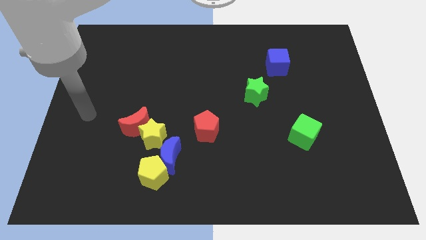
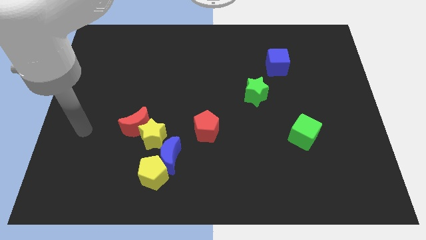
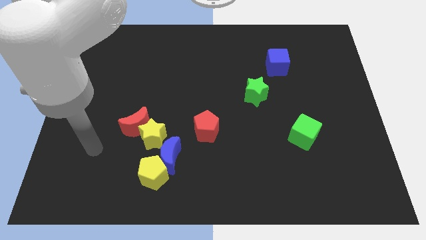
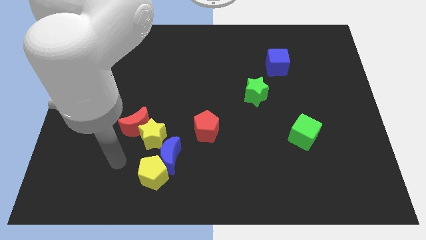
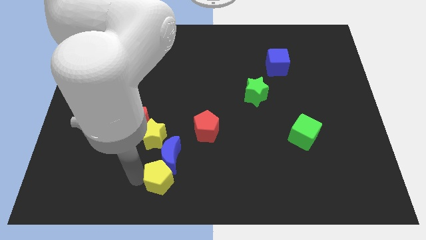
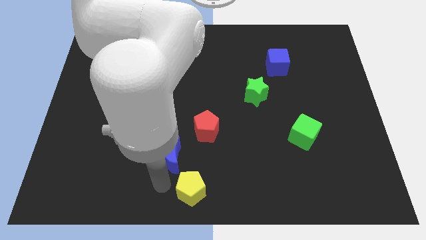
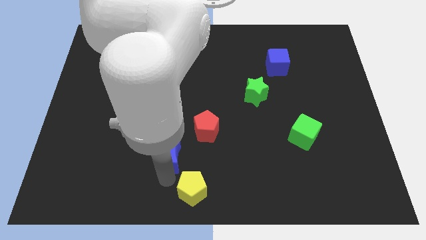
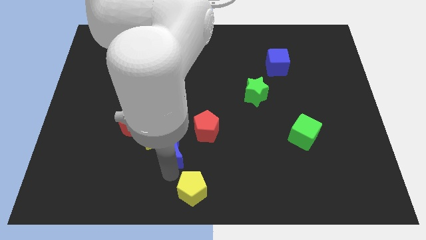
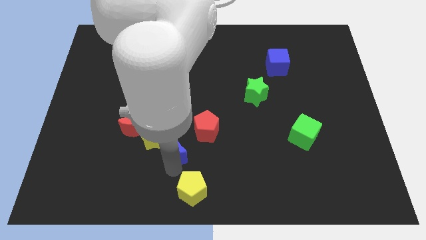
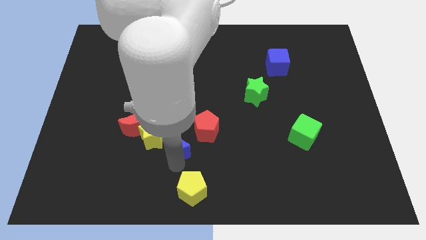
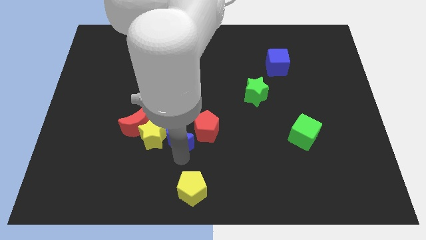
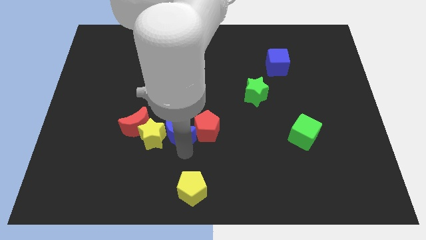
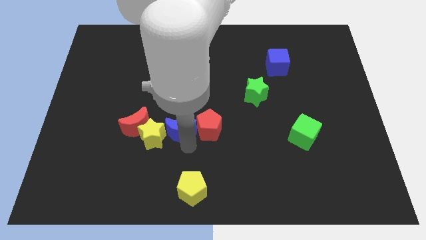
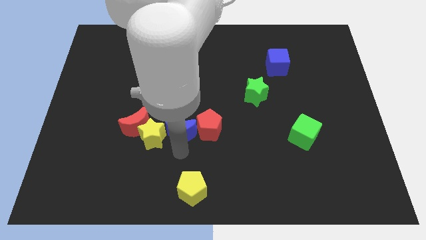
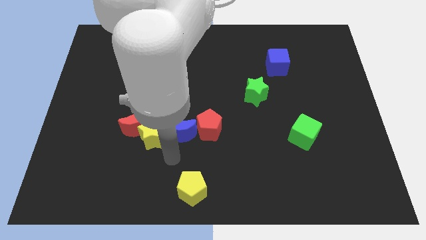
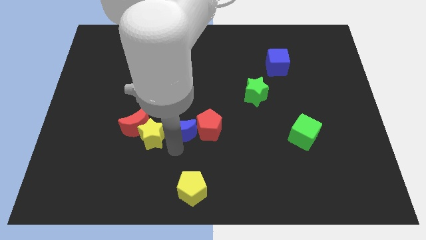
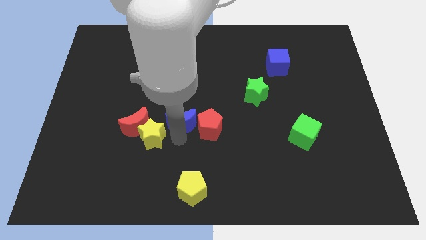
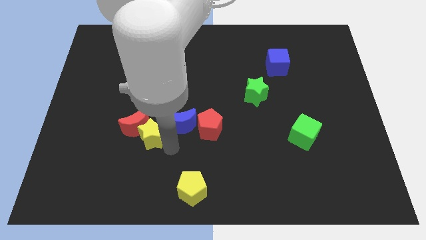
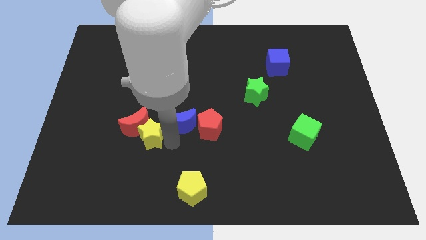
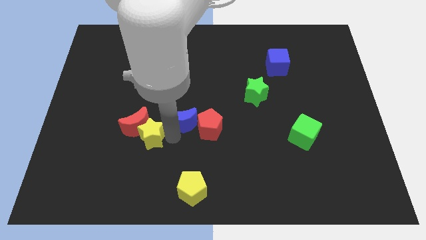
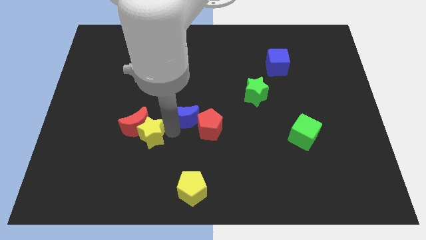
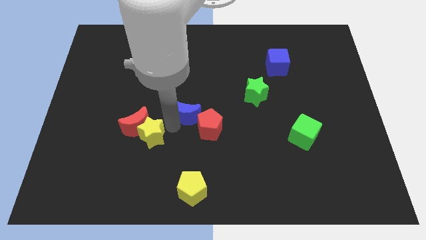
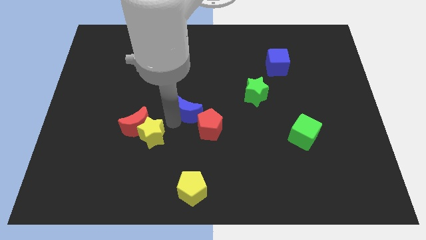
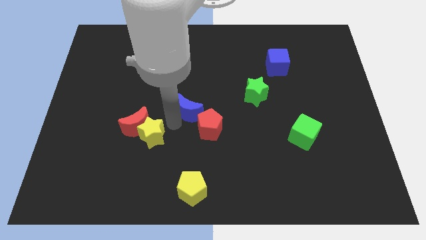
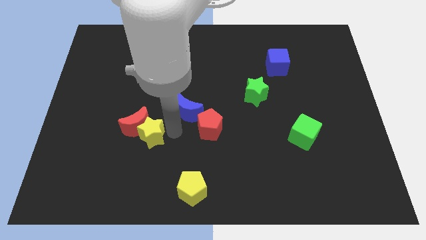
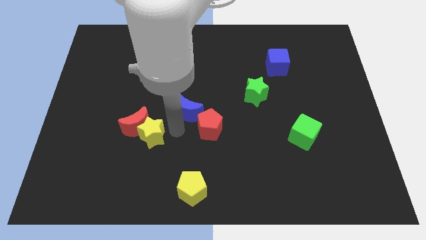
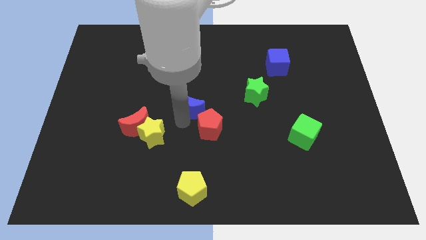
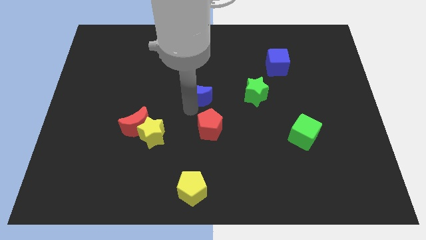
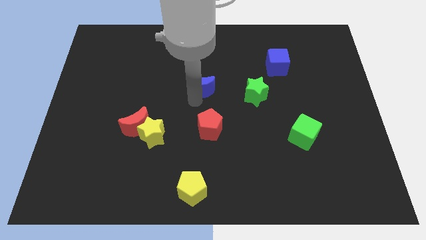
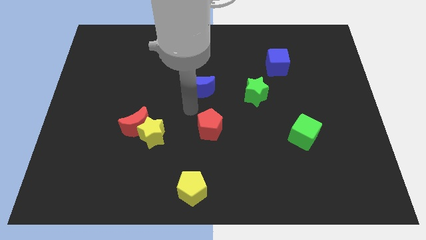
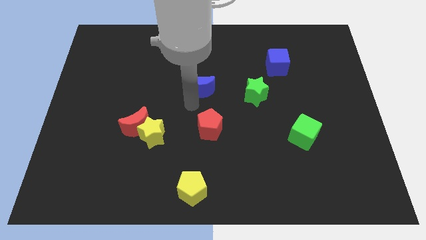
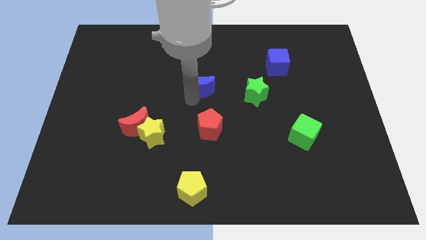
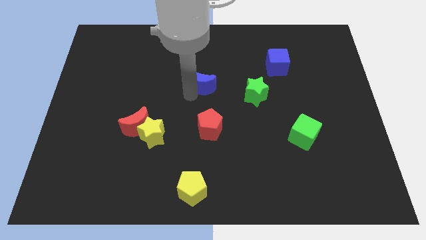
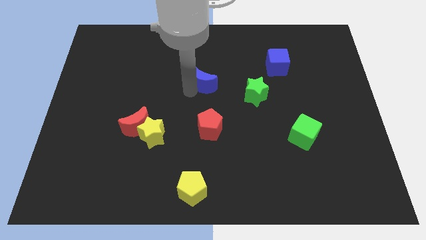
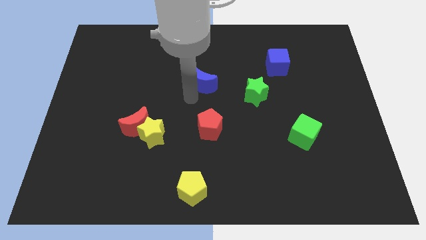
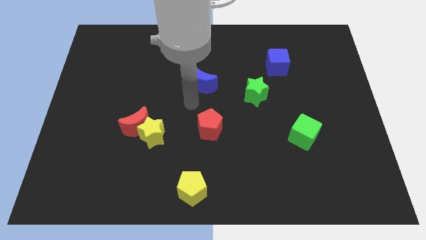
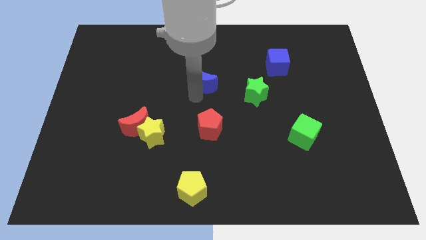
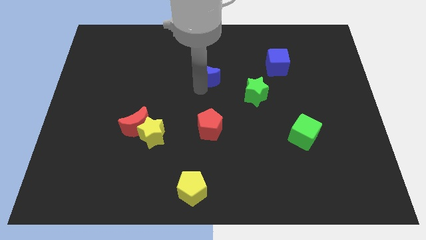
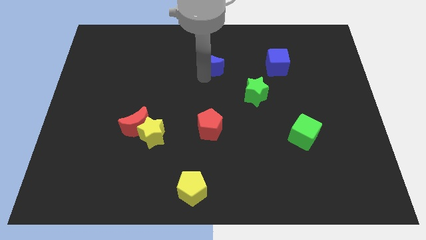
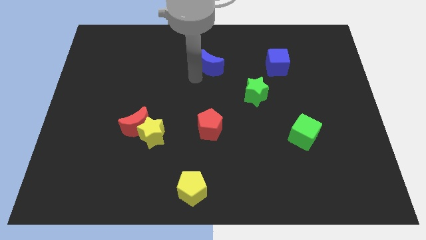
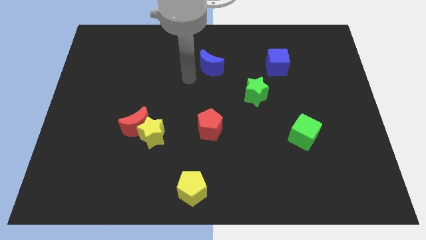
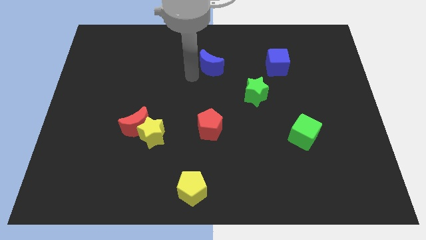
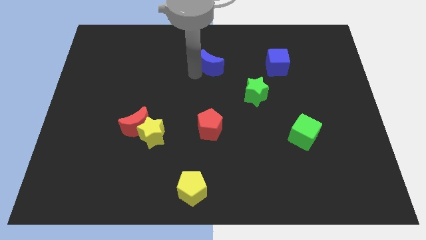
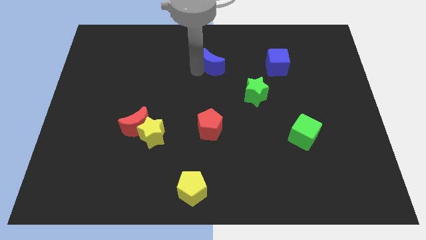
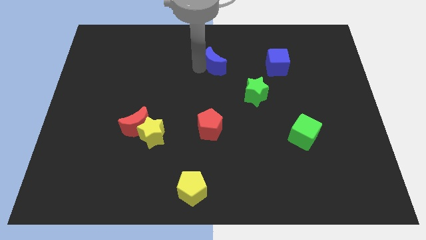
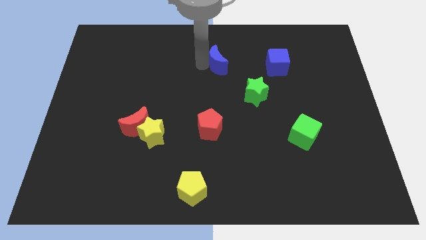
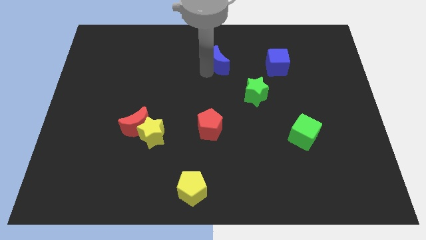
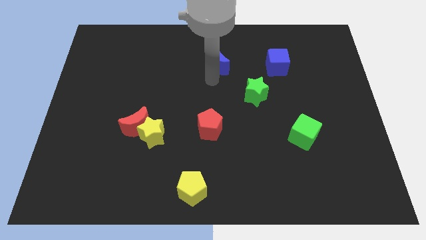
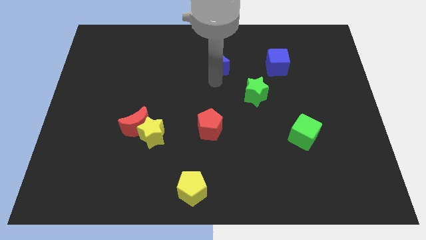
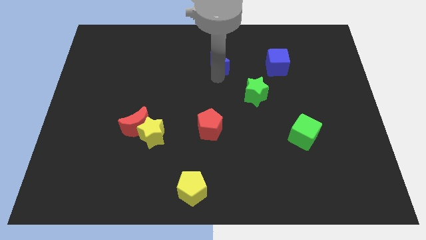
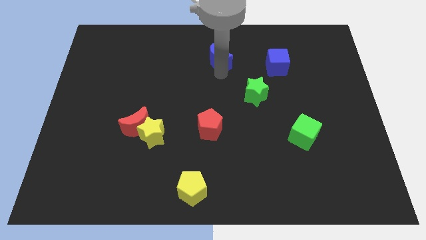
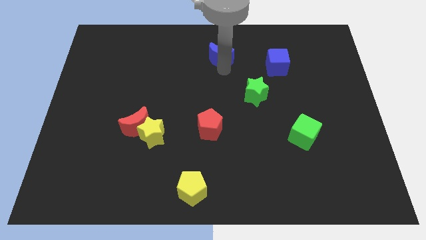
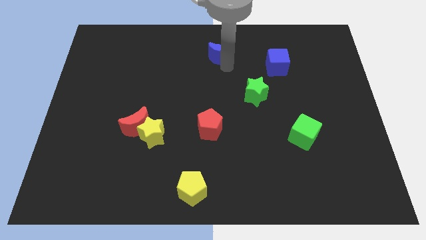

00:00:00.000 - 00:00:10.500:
slide the blue moon to the top
